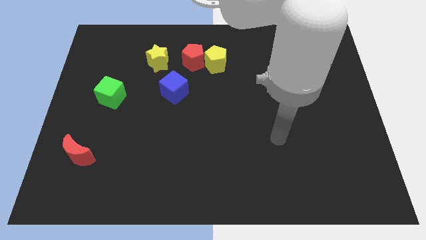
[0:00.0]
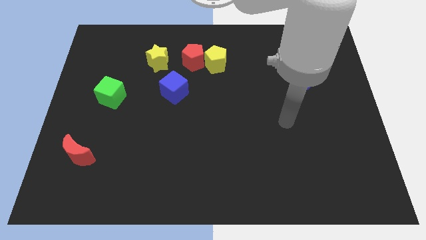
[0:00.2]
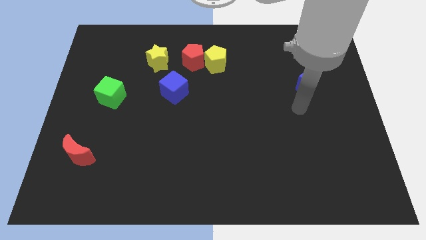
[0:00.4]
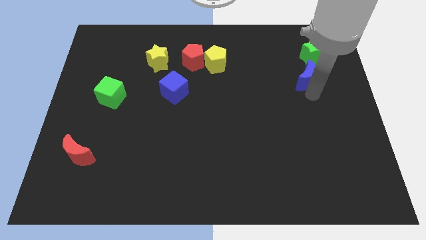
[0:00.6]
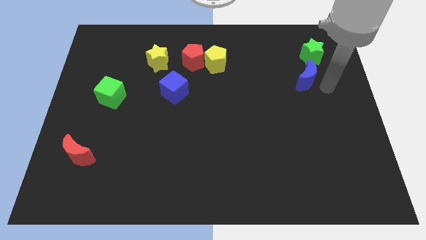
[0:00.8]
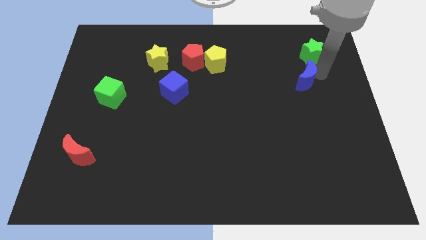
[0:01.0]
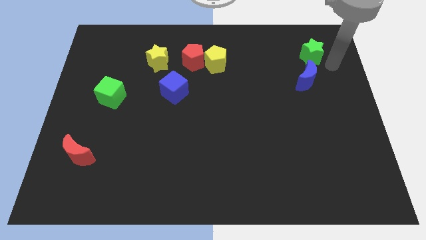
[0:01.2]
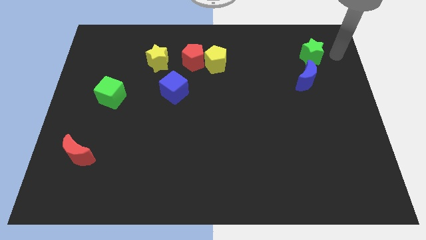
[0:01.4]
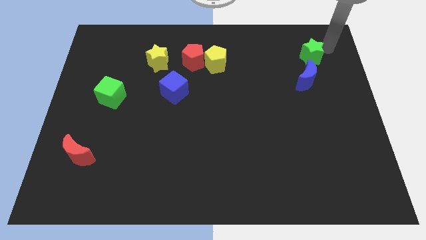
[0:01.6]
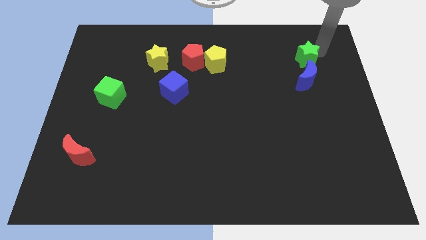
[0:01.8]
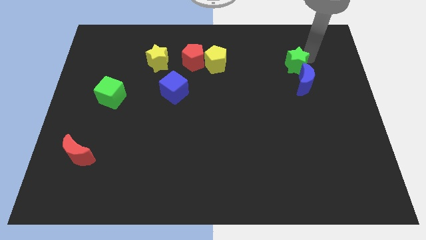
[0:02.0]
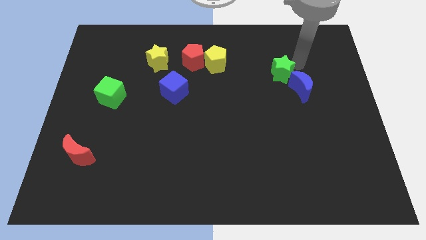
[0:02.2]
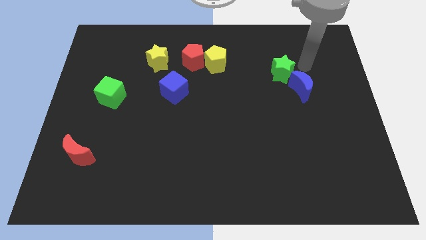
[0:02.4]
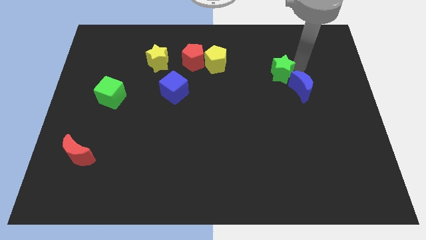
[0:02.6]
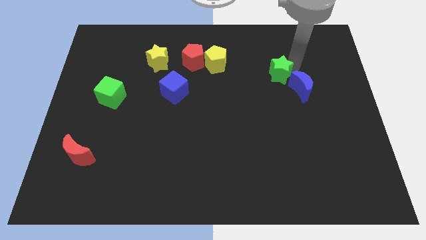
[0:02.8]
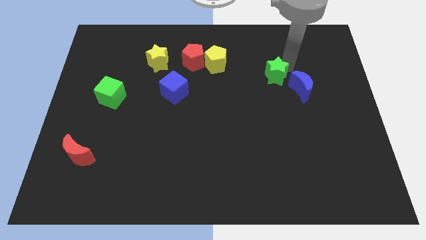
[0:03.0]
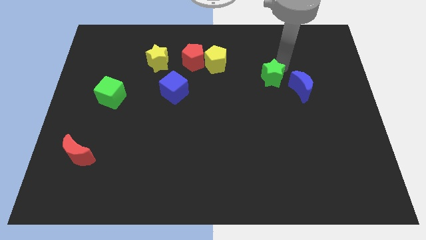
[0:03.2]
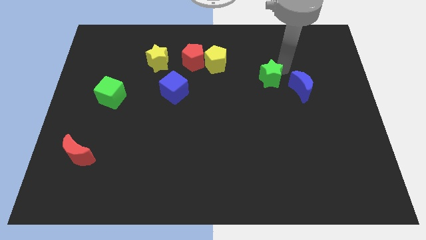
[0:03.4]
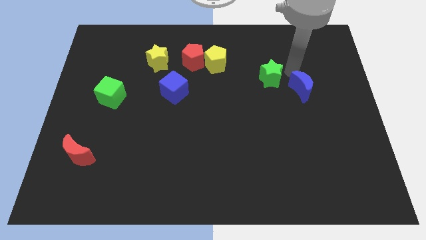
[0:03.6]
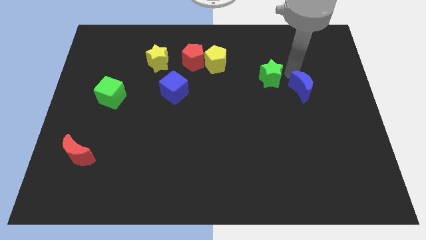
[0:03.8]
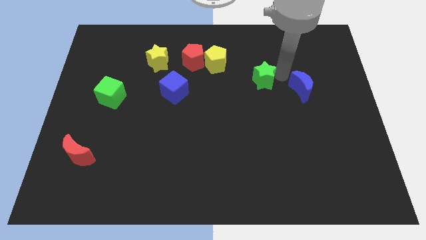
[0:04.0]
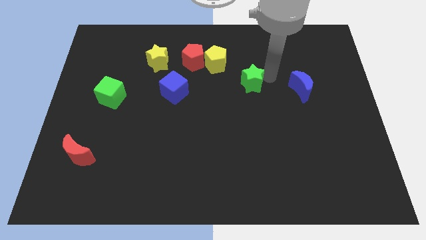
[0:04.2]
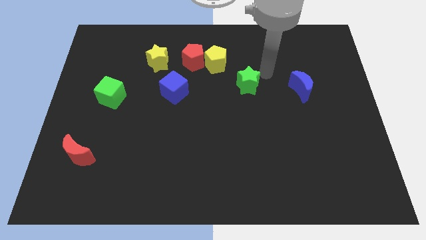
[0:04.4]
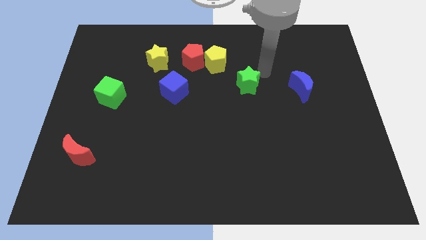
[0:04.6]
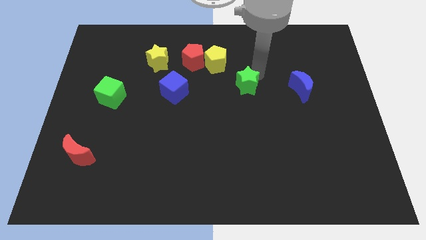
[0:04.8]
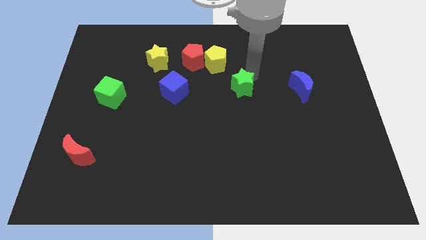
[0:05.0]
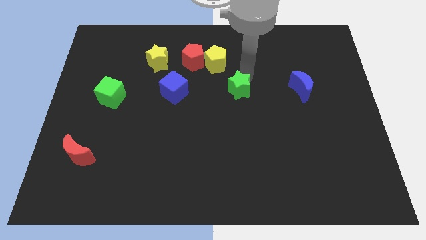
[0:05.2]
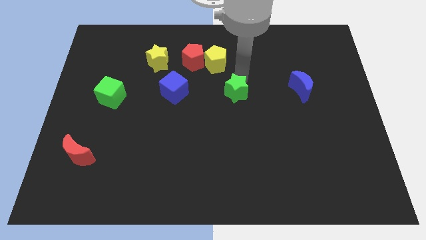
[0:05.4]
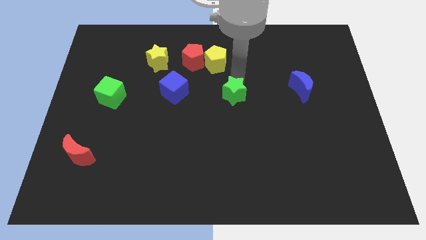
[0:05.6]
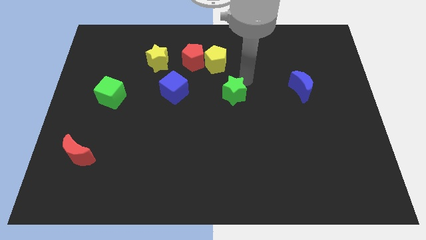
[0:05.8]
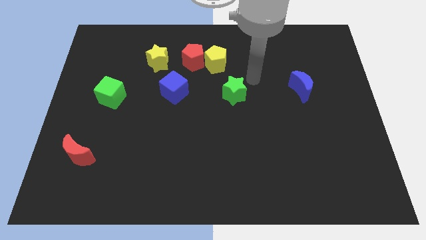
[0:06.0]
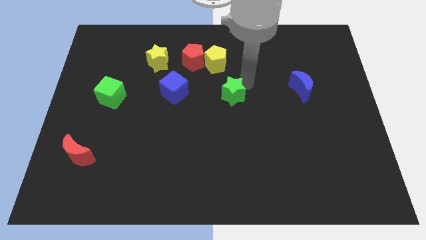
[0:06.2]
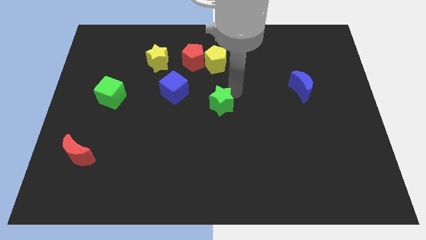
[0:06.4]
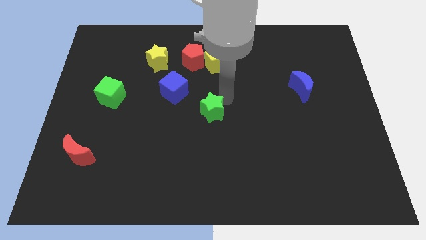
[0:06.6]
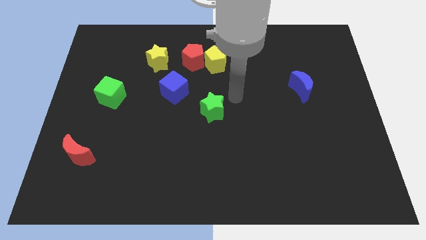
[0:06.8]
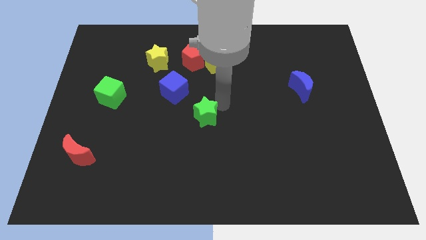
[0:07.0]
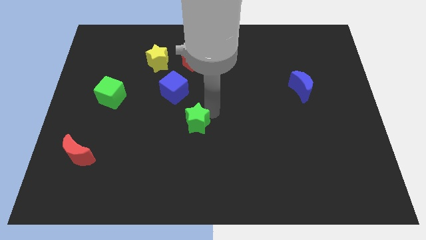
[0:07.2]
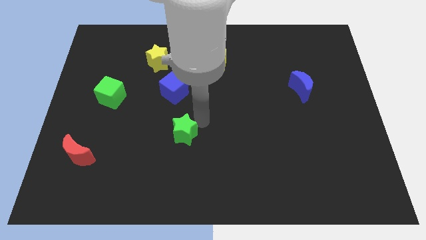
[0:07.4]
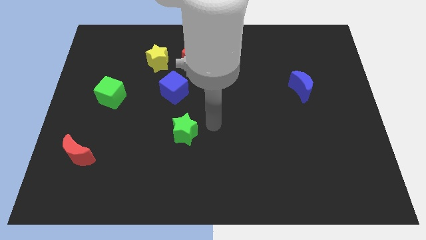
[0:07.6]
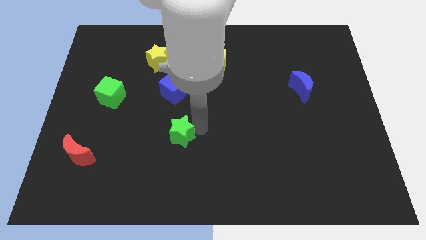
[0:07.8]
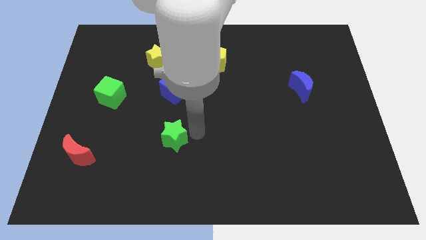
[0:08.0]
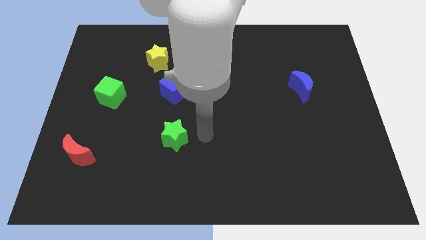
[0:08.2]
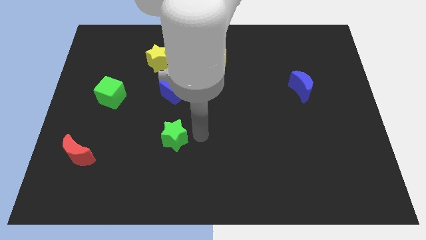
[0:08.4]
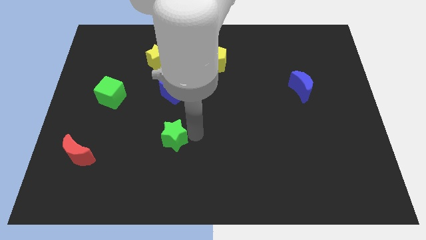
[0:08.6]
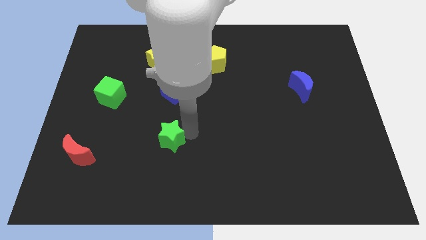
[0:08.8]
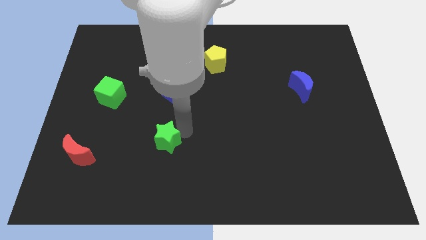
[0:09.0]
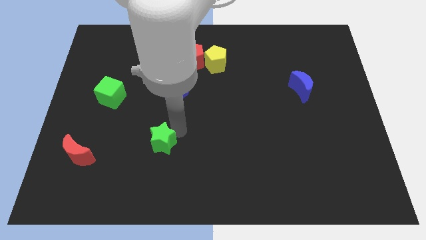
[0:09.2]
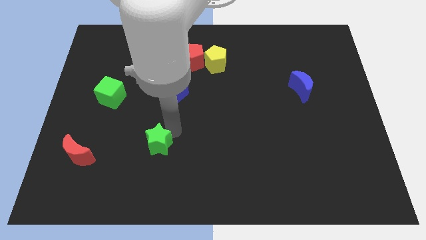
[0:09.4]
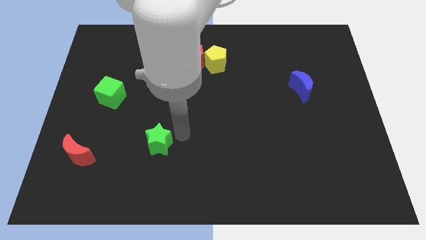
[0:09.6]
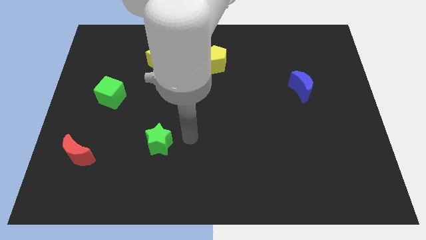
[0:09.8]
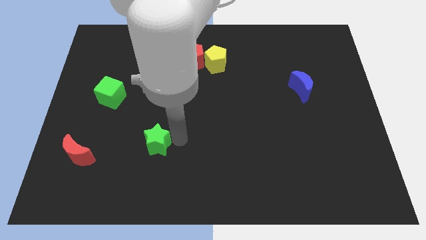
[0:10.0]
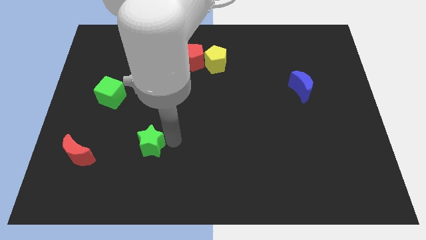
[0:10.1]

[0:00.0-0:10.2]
slide the green star right of the red moon

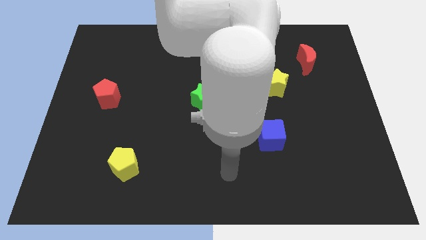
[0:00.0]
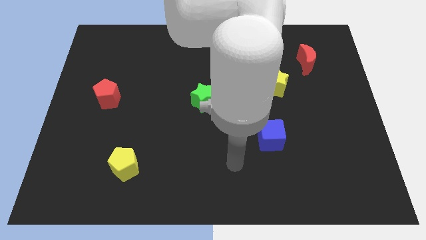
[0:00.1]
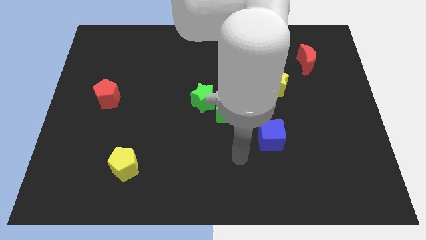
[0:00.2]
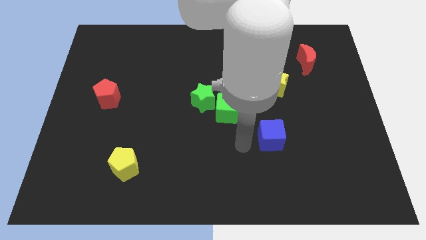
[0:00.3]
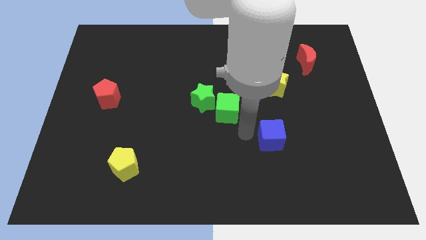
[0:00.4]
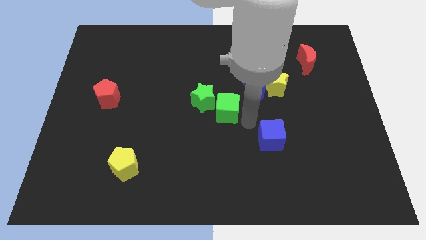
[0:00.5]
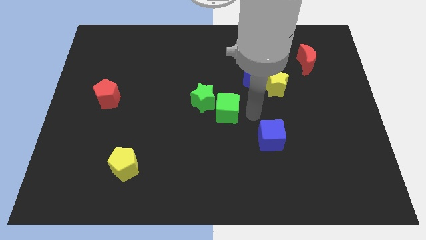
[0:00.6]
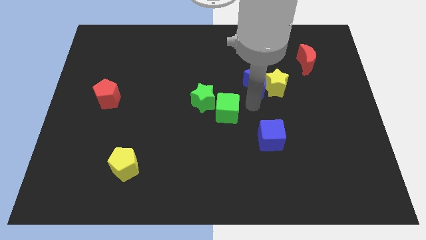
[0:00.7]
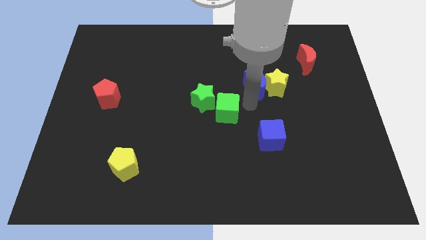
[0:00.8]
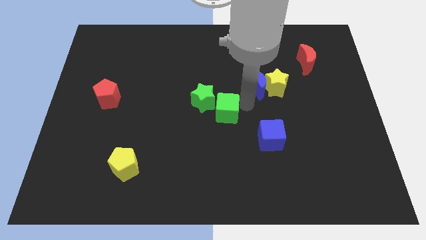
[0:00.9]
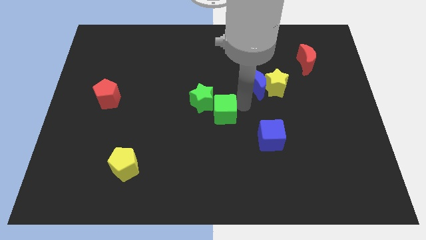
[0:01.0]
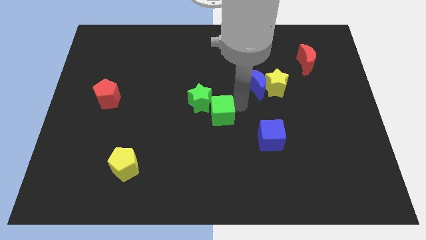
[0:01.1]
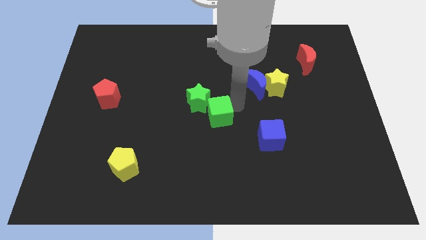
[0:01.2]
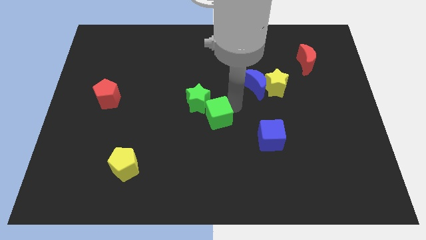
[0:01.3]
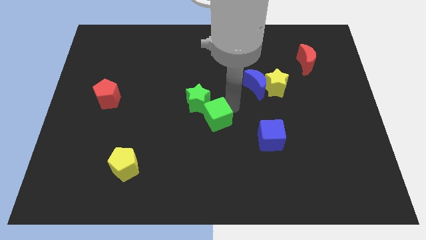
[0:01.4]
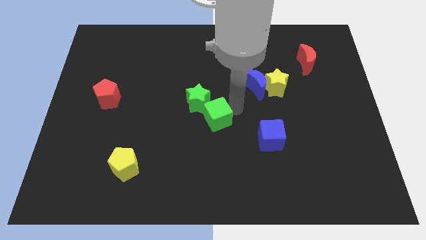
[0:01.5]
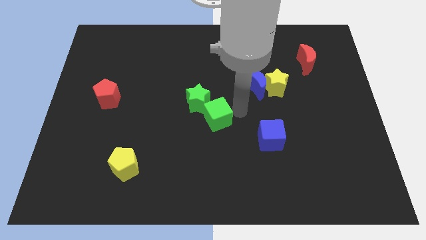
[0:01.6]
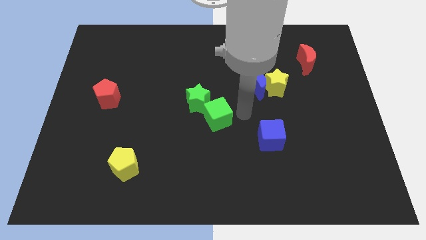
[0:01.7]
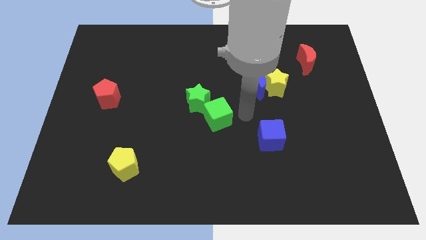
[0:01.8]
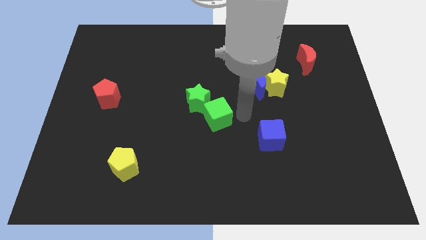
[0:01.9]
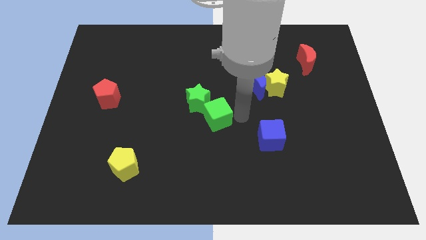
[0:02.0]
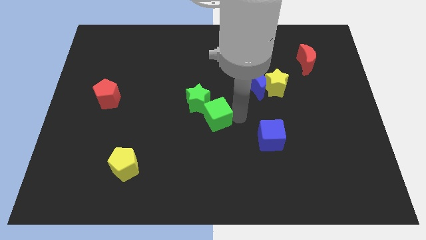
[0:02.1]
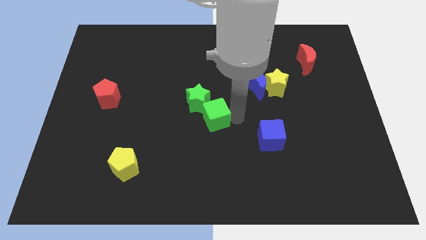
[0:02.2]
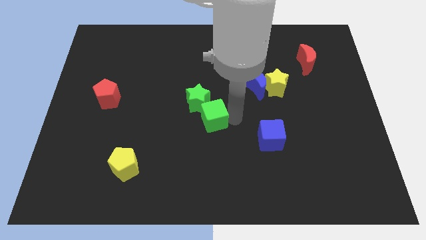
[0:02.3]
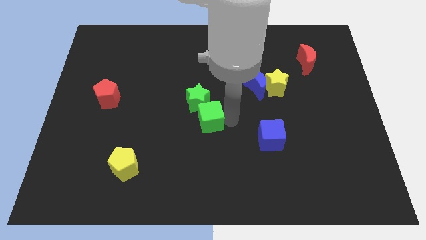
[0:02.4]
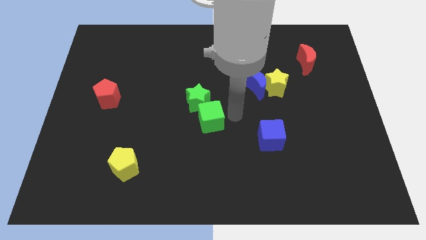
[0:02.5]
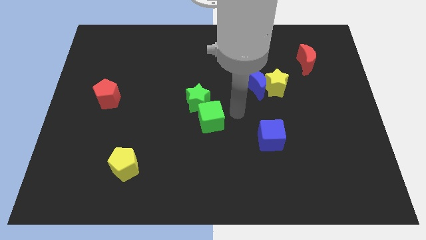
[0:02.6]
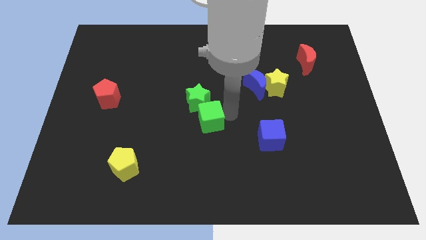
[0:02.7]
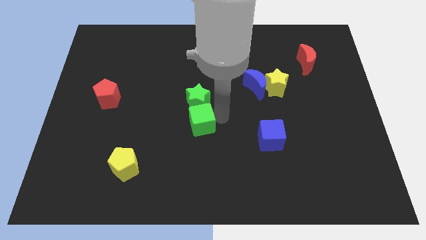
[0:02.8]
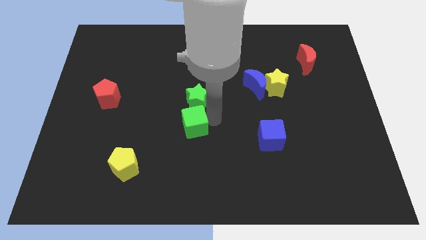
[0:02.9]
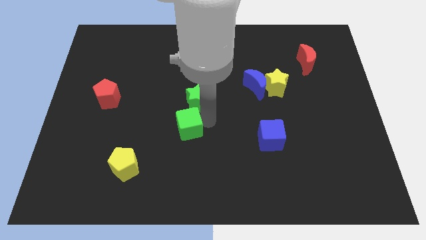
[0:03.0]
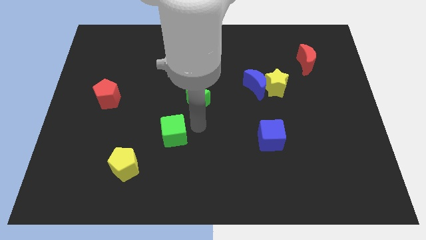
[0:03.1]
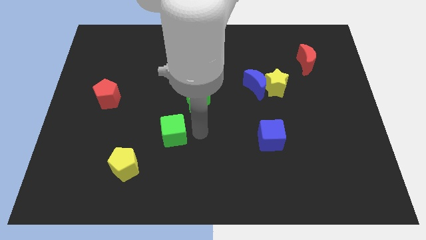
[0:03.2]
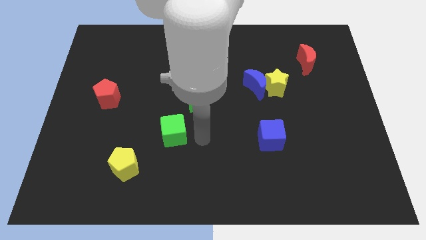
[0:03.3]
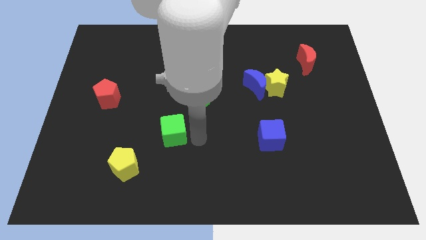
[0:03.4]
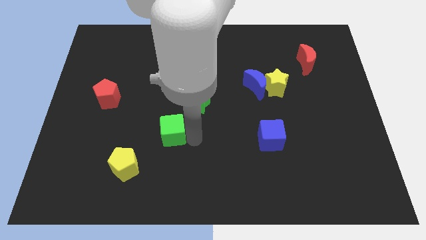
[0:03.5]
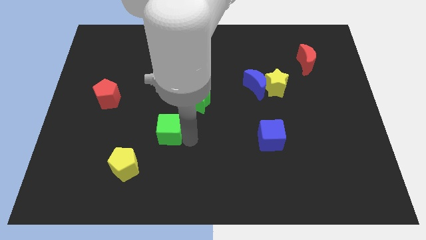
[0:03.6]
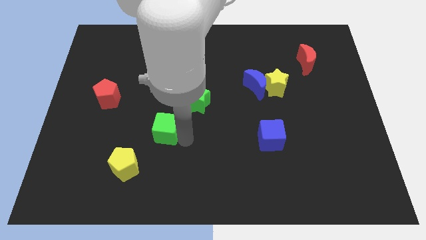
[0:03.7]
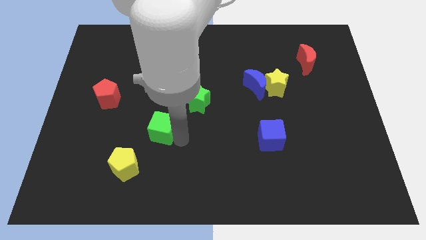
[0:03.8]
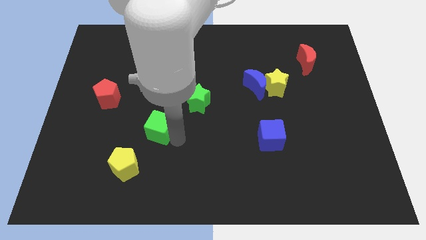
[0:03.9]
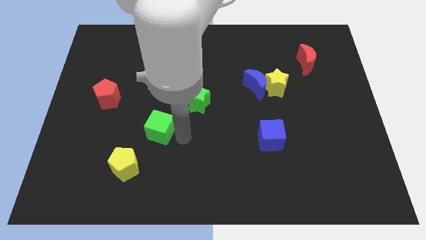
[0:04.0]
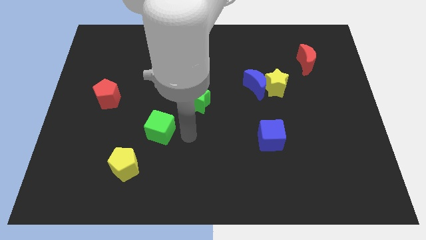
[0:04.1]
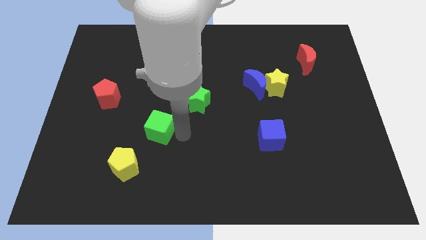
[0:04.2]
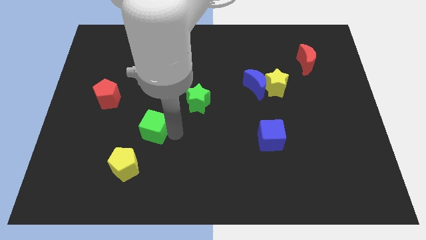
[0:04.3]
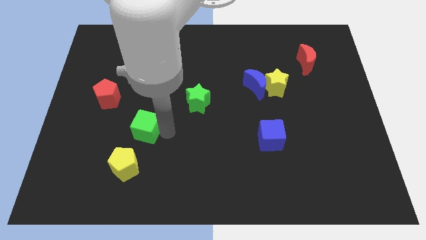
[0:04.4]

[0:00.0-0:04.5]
move the green cube to the top side of the yellow pentagon
